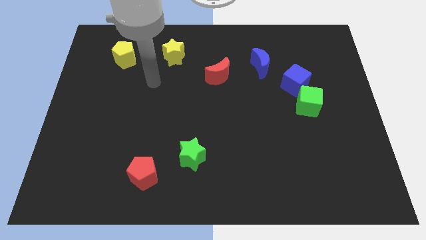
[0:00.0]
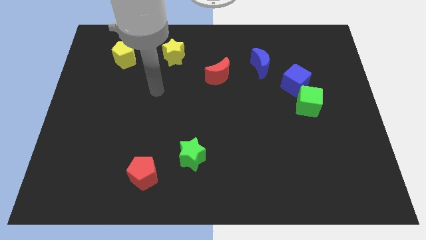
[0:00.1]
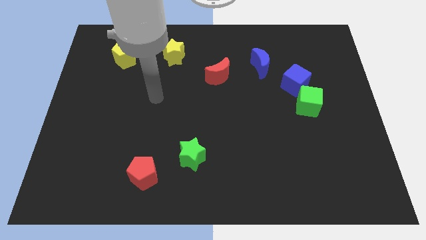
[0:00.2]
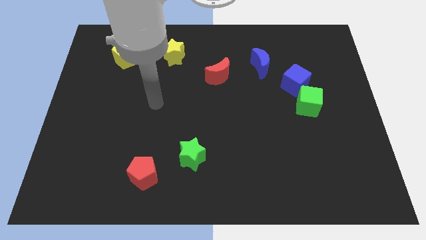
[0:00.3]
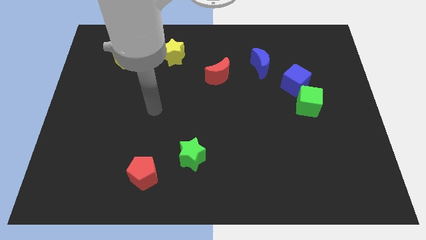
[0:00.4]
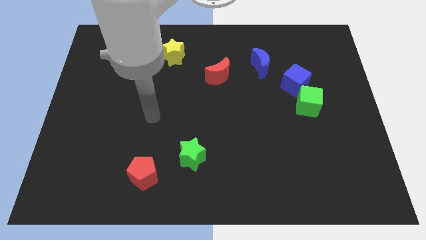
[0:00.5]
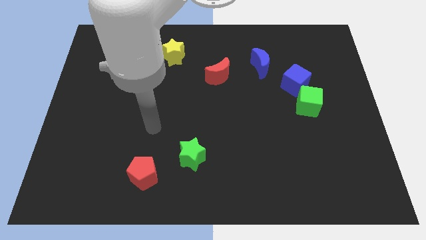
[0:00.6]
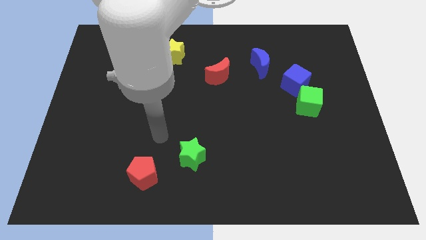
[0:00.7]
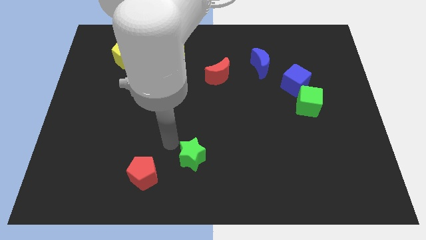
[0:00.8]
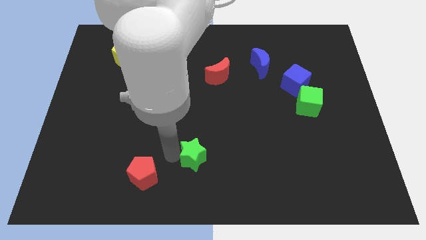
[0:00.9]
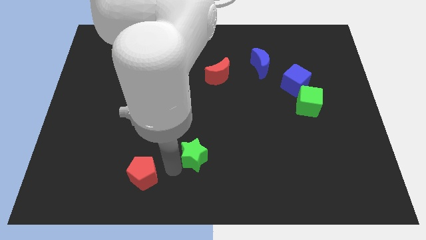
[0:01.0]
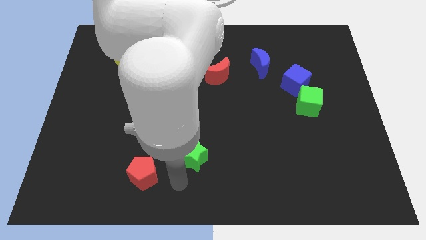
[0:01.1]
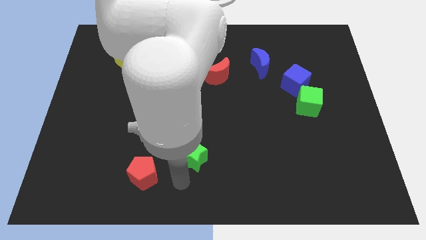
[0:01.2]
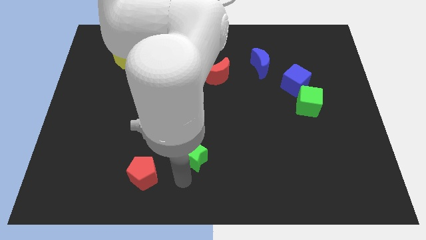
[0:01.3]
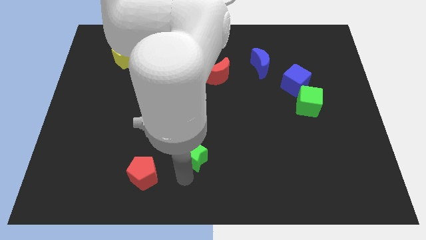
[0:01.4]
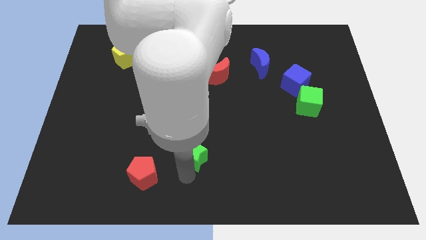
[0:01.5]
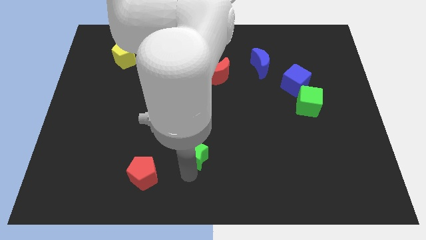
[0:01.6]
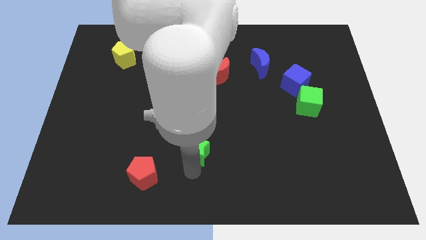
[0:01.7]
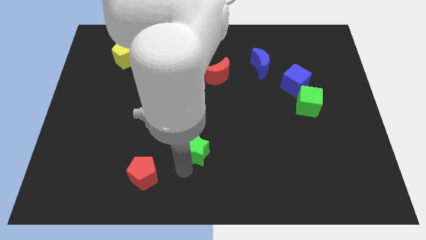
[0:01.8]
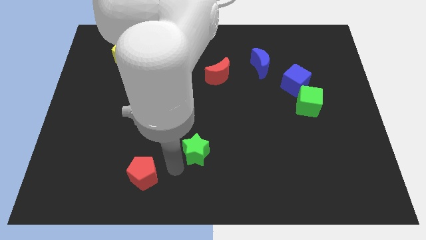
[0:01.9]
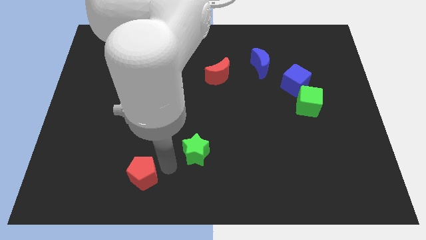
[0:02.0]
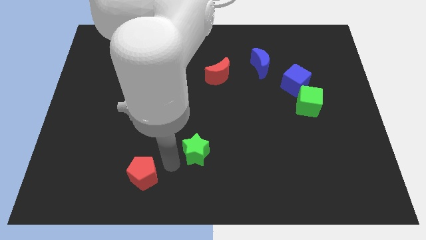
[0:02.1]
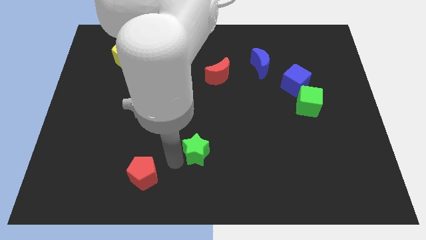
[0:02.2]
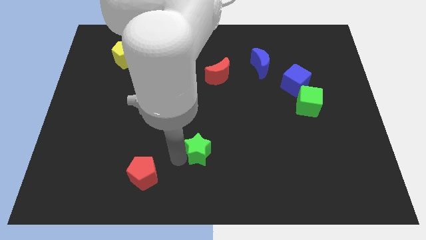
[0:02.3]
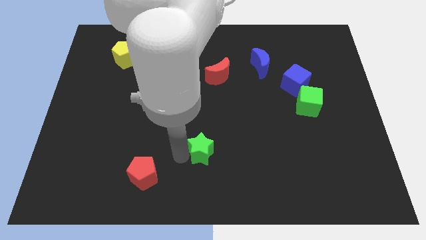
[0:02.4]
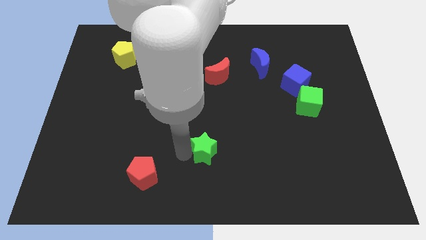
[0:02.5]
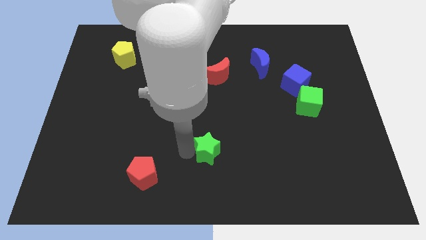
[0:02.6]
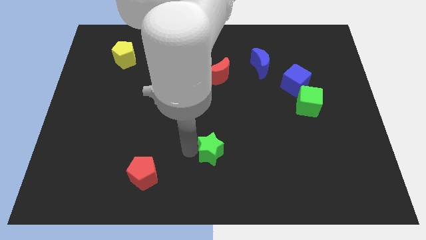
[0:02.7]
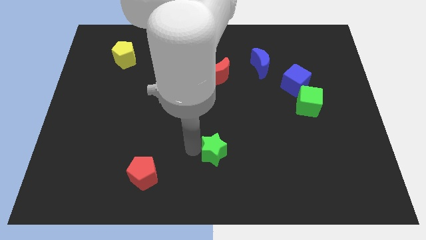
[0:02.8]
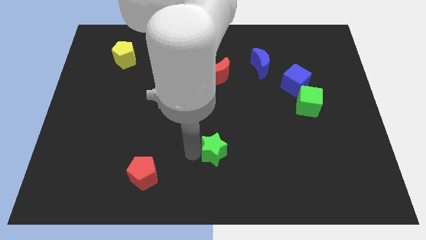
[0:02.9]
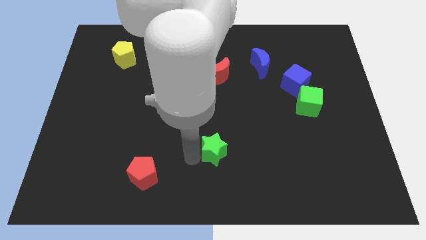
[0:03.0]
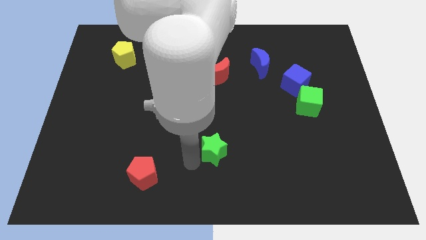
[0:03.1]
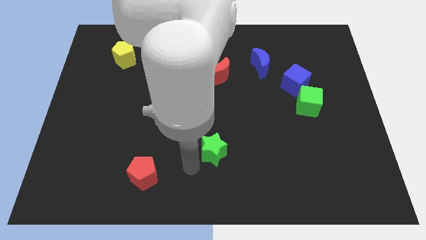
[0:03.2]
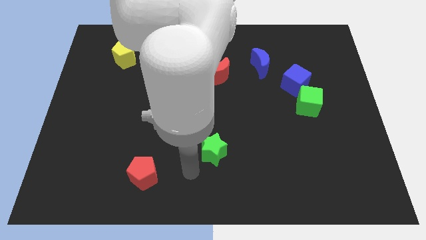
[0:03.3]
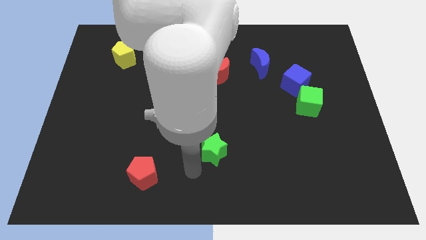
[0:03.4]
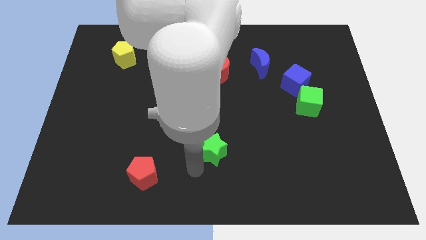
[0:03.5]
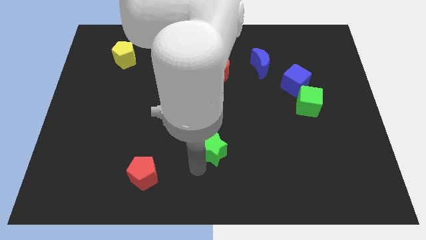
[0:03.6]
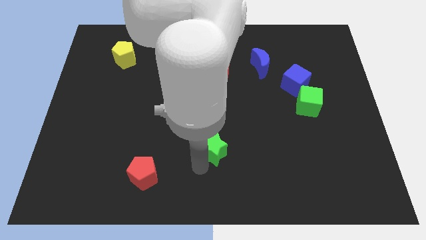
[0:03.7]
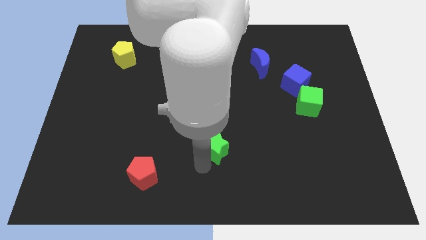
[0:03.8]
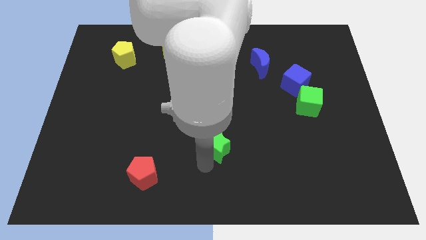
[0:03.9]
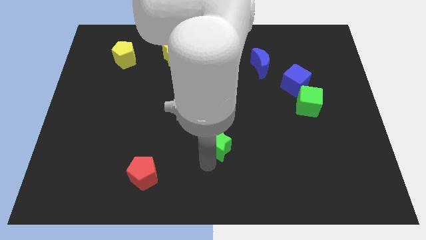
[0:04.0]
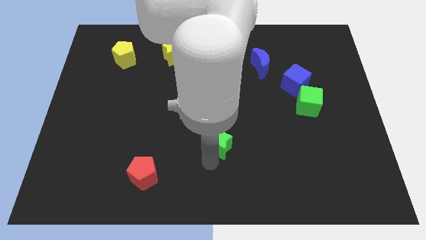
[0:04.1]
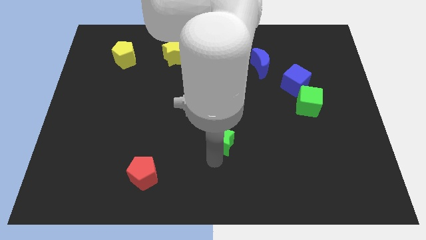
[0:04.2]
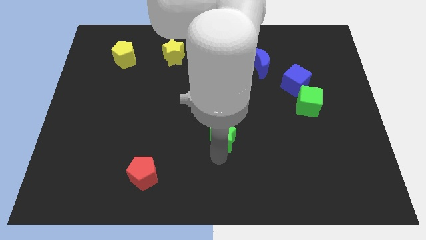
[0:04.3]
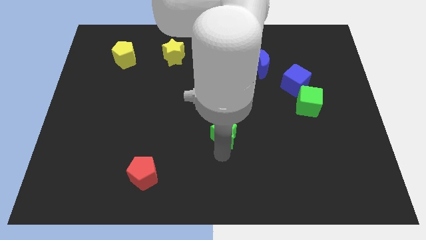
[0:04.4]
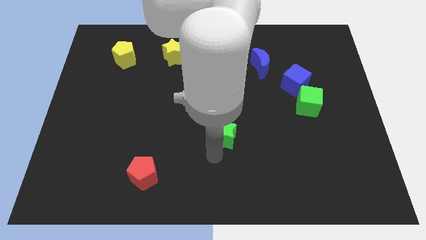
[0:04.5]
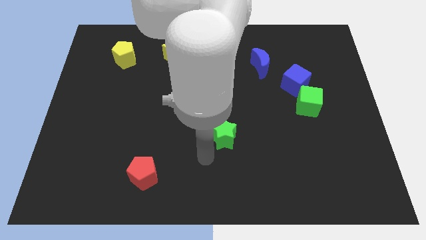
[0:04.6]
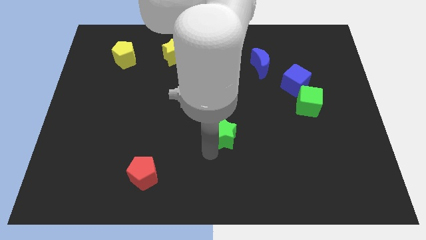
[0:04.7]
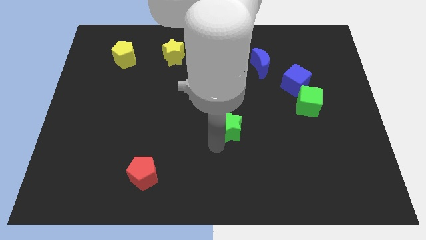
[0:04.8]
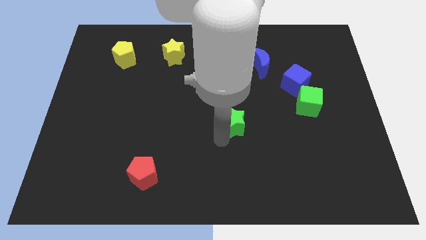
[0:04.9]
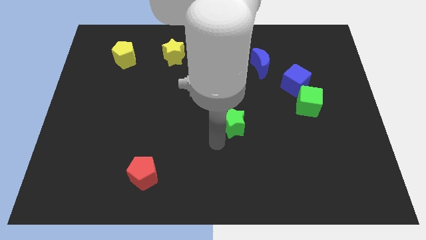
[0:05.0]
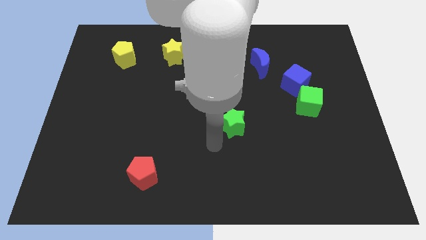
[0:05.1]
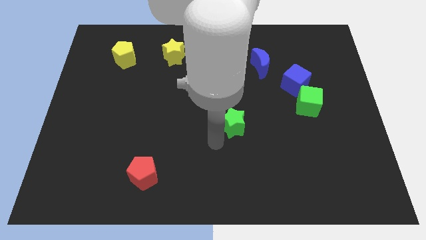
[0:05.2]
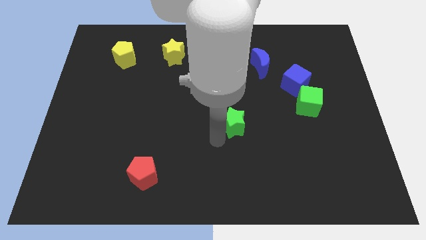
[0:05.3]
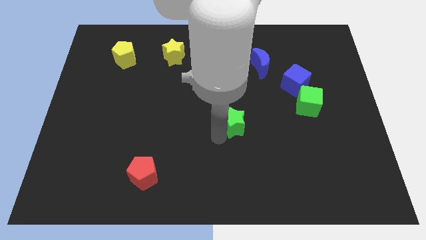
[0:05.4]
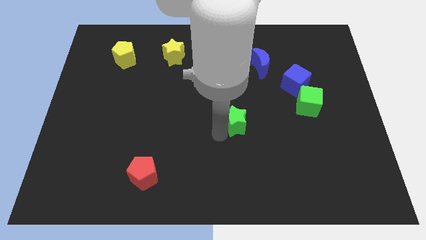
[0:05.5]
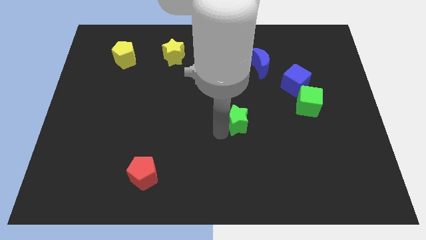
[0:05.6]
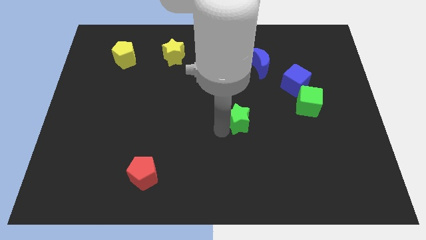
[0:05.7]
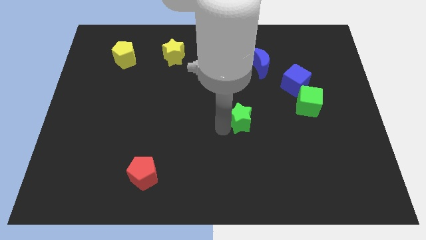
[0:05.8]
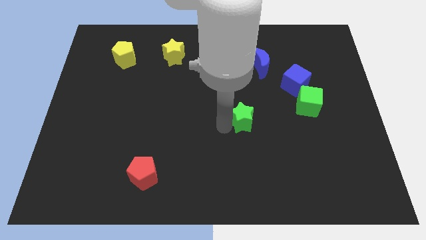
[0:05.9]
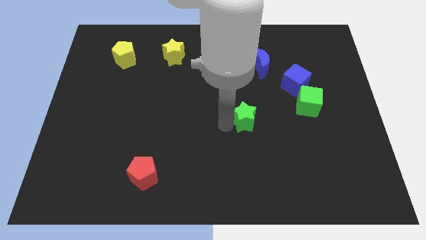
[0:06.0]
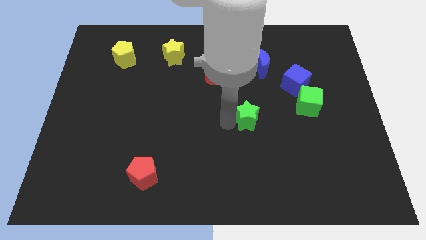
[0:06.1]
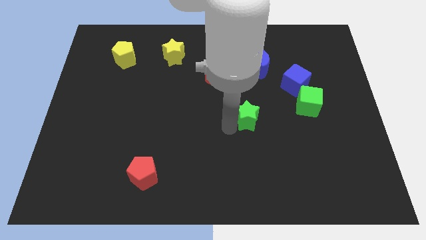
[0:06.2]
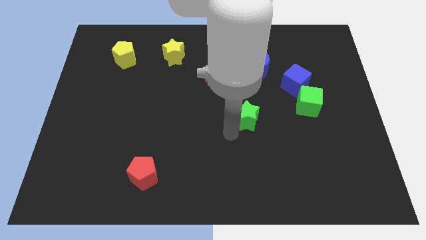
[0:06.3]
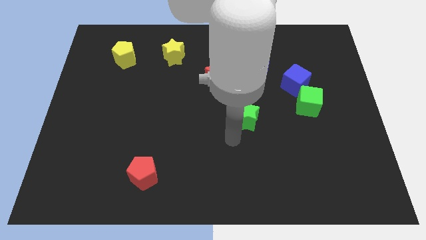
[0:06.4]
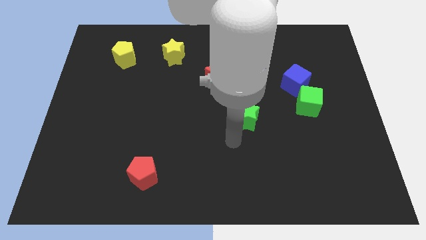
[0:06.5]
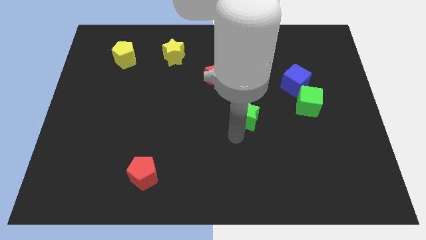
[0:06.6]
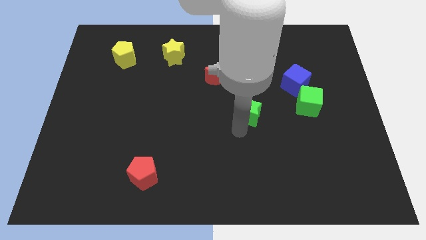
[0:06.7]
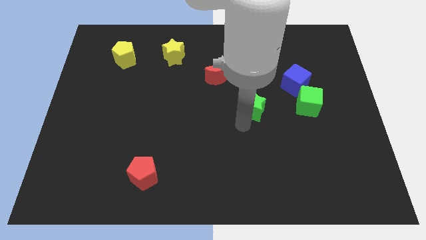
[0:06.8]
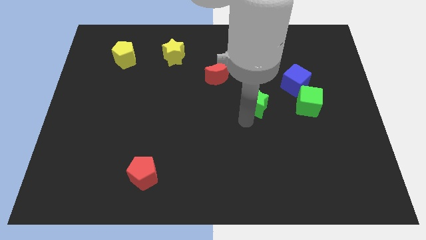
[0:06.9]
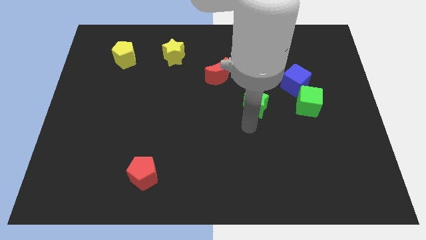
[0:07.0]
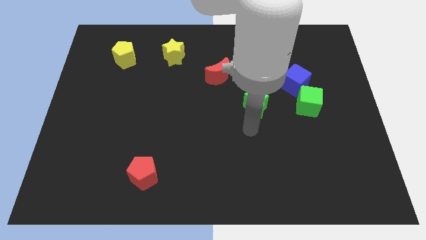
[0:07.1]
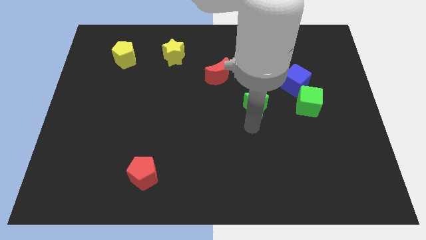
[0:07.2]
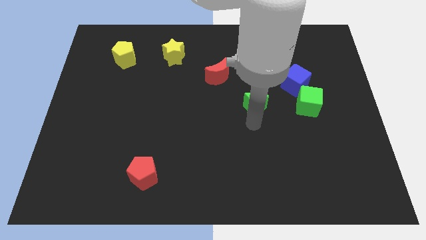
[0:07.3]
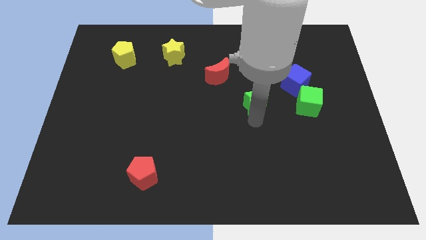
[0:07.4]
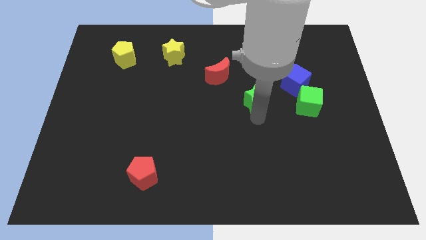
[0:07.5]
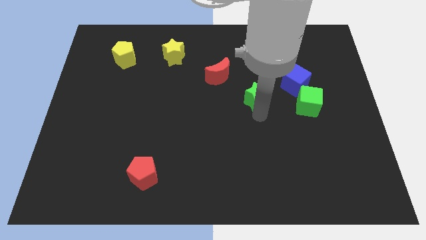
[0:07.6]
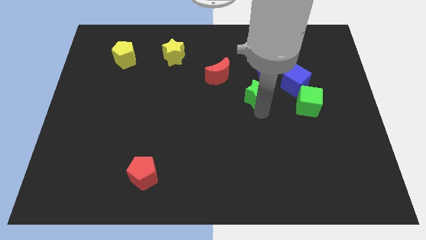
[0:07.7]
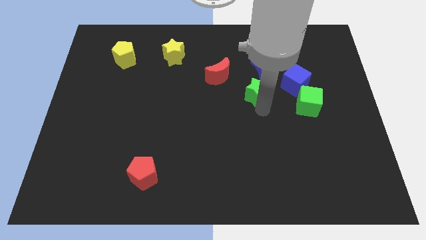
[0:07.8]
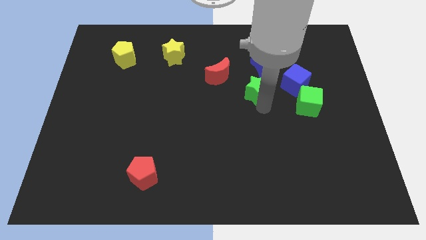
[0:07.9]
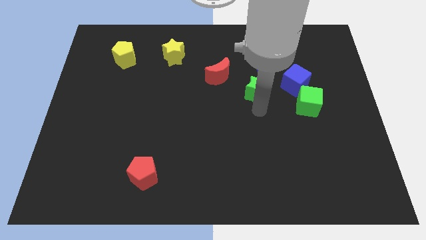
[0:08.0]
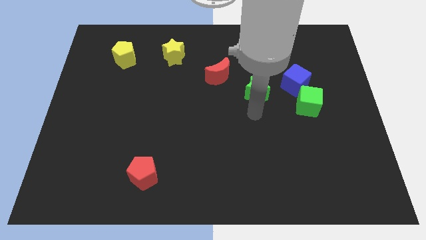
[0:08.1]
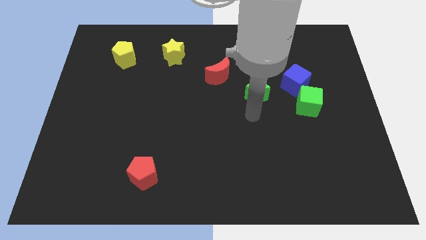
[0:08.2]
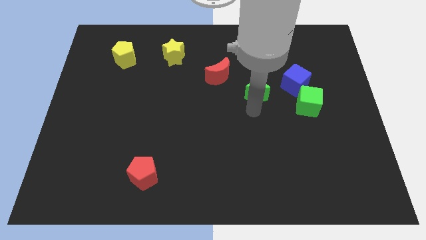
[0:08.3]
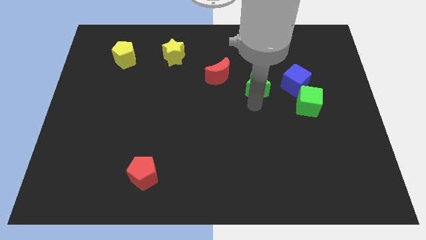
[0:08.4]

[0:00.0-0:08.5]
move the green star just right of the red moon
